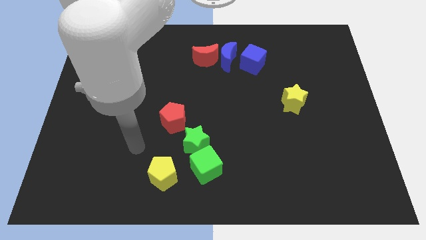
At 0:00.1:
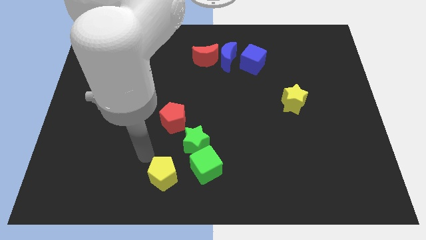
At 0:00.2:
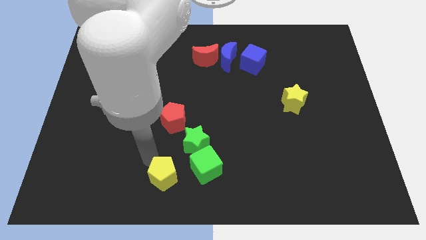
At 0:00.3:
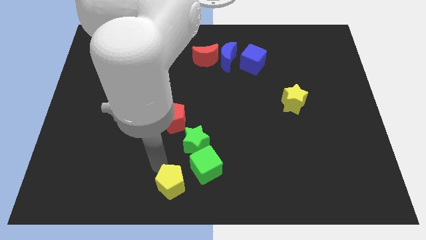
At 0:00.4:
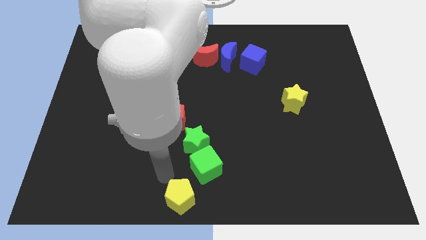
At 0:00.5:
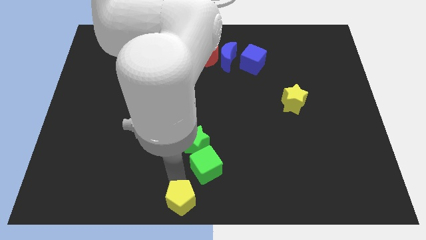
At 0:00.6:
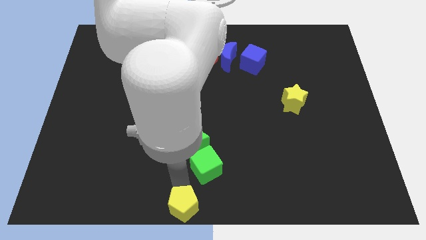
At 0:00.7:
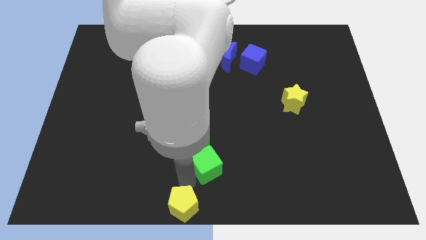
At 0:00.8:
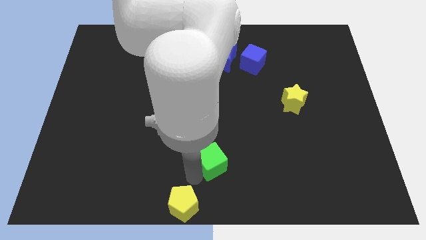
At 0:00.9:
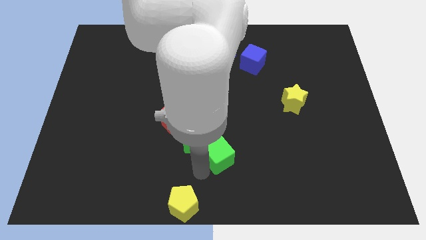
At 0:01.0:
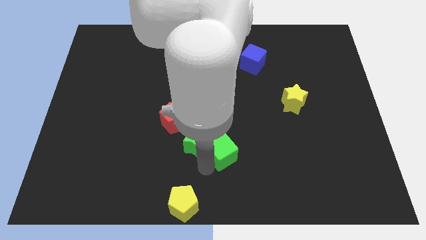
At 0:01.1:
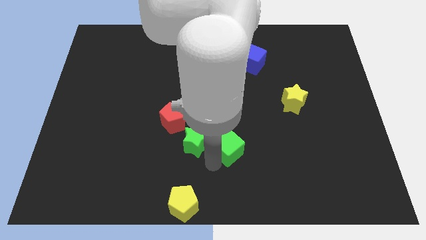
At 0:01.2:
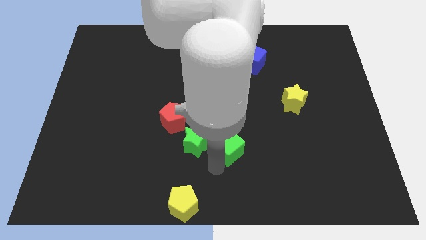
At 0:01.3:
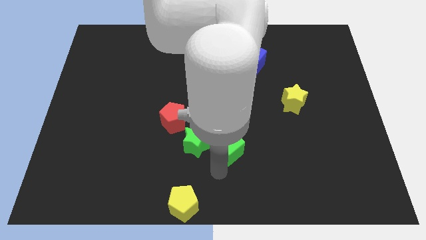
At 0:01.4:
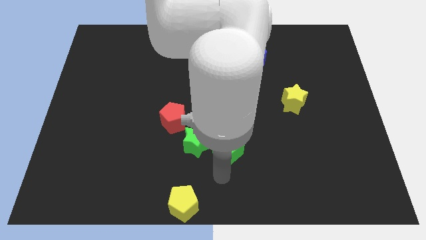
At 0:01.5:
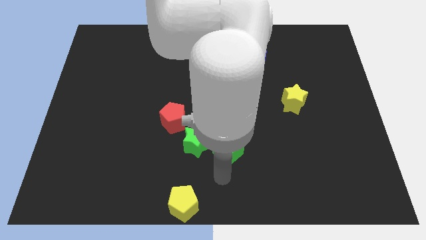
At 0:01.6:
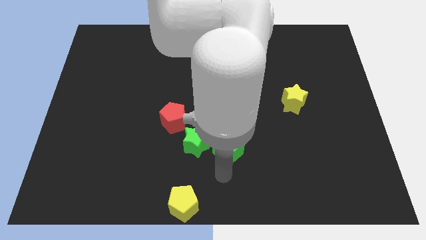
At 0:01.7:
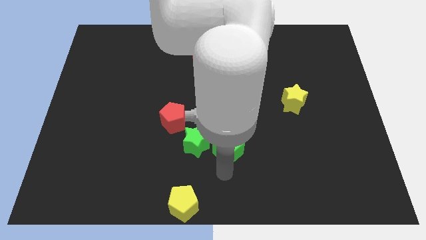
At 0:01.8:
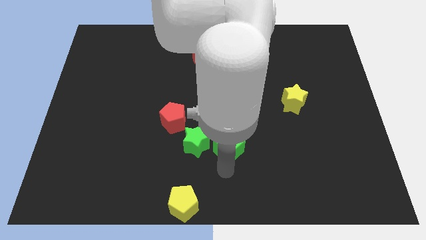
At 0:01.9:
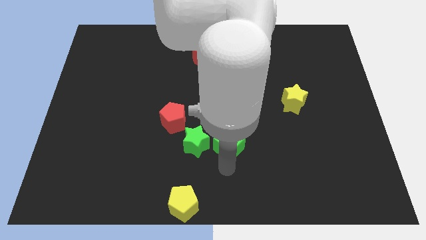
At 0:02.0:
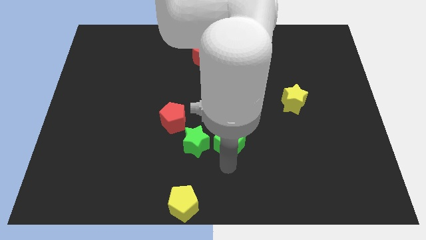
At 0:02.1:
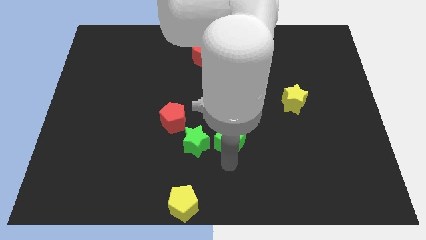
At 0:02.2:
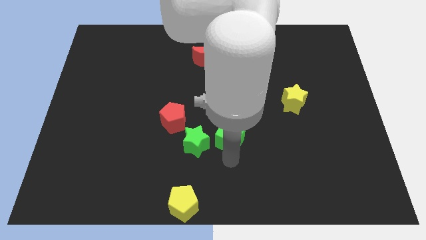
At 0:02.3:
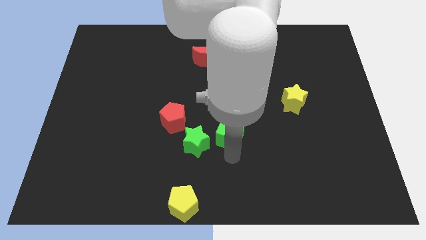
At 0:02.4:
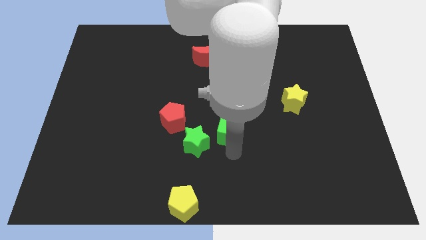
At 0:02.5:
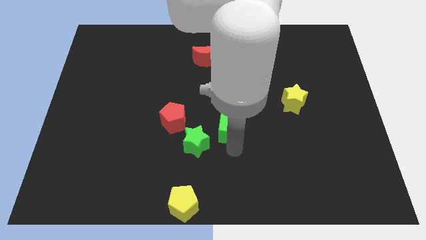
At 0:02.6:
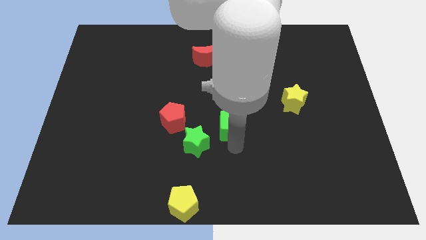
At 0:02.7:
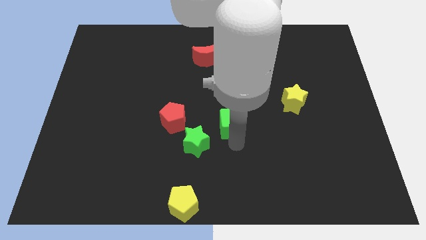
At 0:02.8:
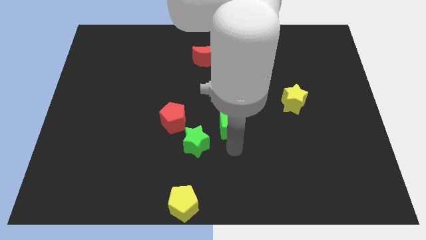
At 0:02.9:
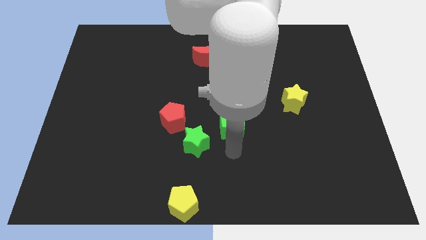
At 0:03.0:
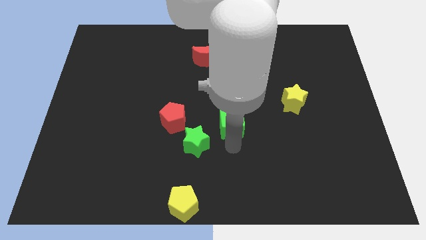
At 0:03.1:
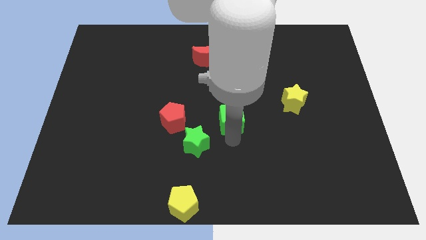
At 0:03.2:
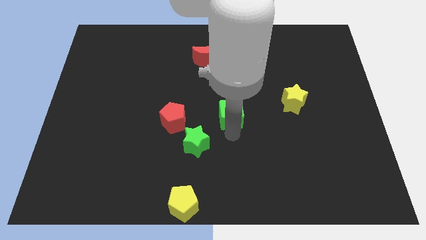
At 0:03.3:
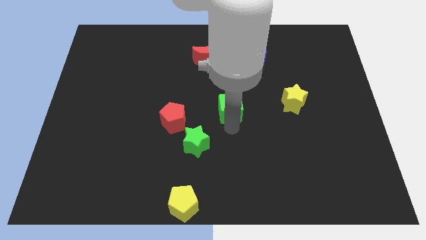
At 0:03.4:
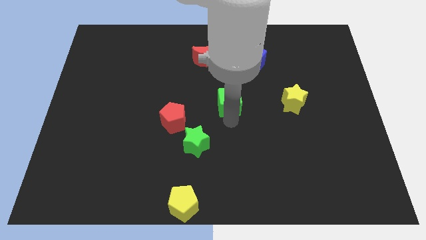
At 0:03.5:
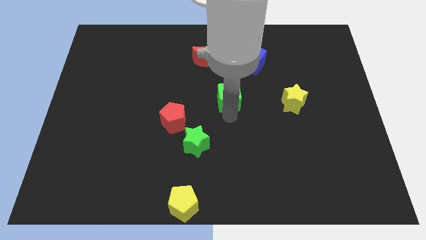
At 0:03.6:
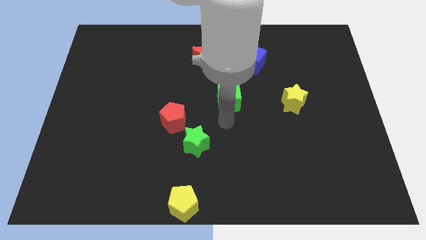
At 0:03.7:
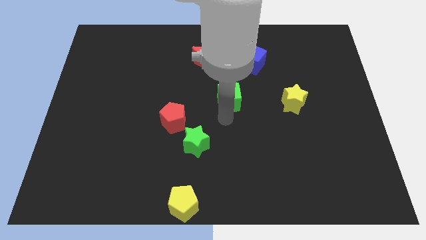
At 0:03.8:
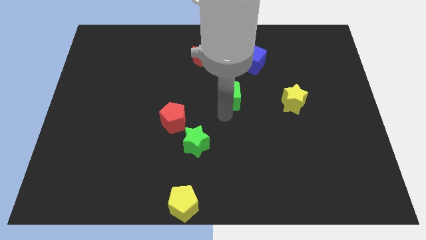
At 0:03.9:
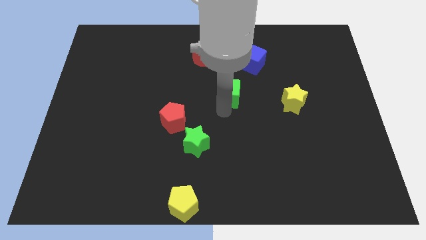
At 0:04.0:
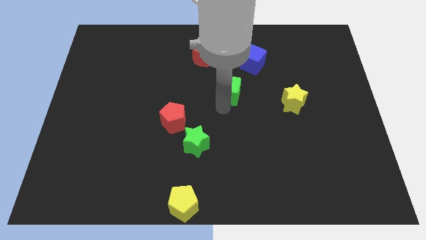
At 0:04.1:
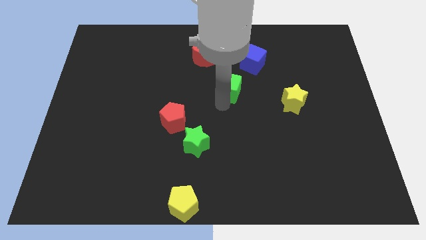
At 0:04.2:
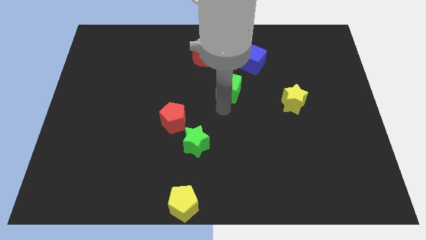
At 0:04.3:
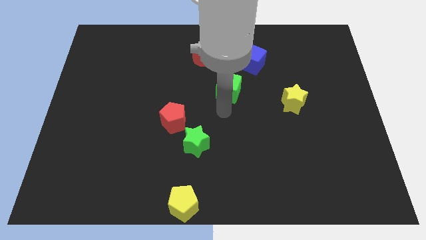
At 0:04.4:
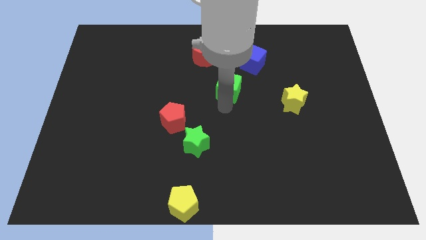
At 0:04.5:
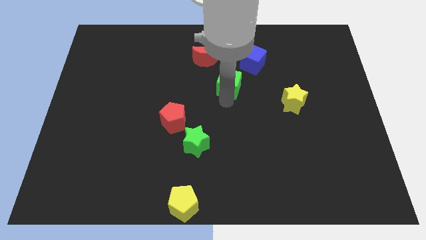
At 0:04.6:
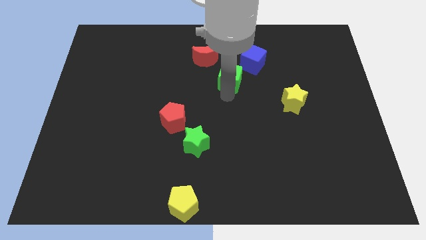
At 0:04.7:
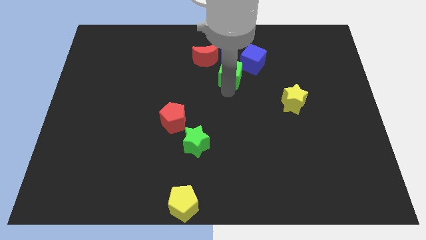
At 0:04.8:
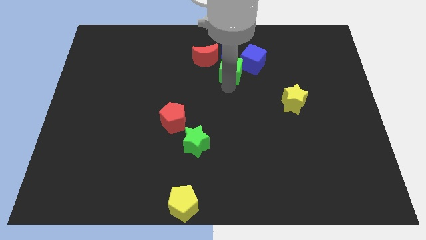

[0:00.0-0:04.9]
put the green cube to the blue moon

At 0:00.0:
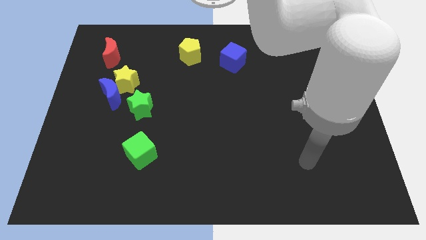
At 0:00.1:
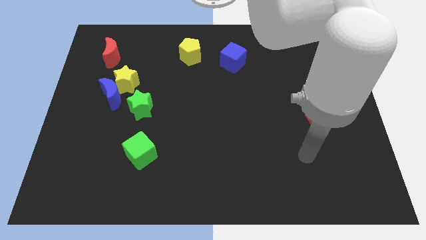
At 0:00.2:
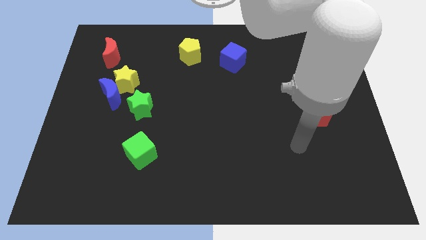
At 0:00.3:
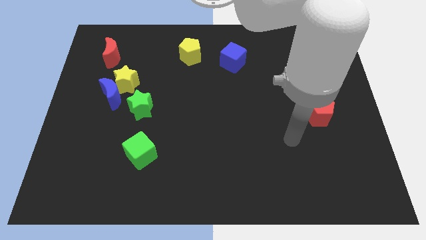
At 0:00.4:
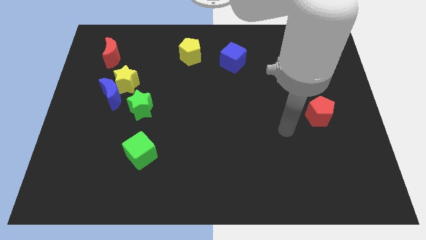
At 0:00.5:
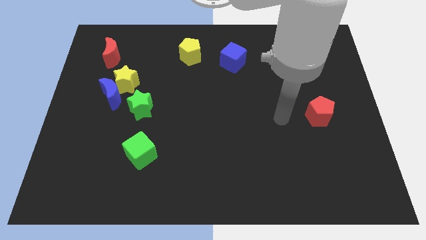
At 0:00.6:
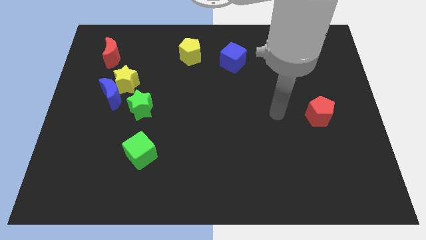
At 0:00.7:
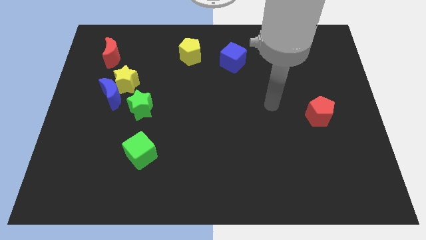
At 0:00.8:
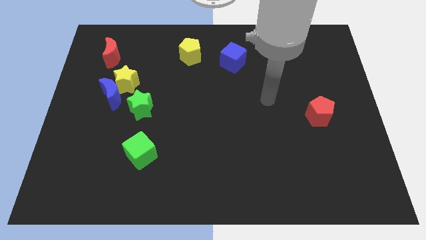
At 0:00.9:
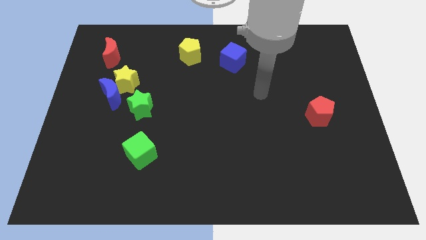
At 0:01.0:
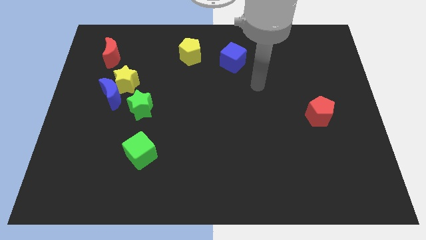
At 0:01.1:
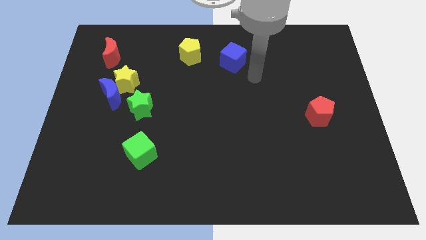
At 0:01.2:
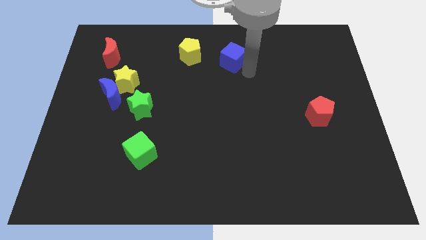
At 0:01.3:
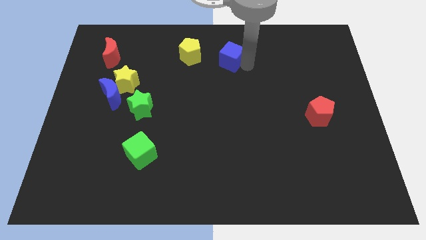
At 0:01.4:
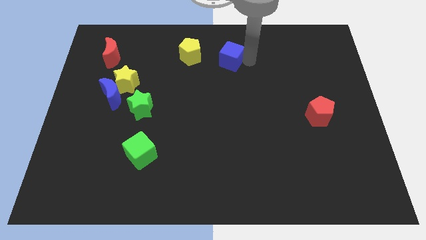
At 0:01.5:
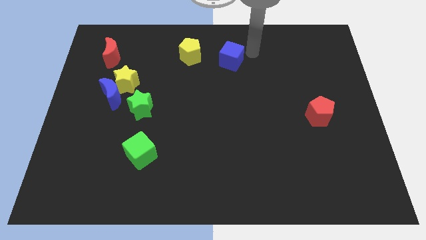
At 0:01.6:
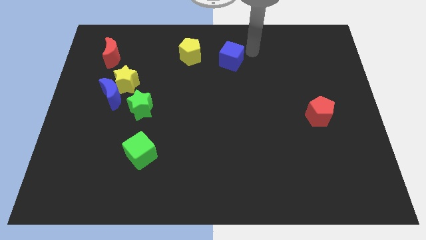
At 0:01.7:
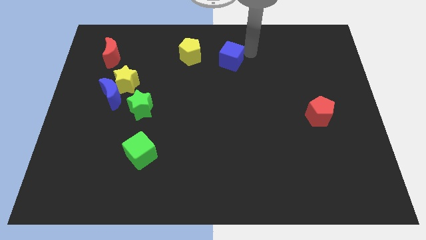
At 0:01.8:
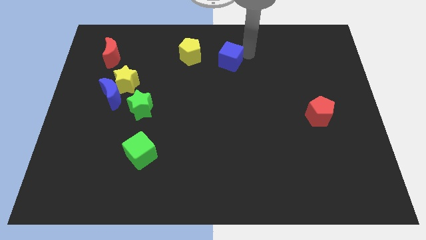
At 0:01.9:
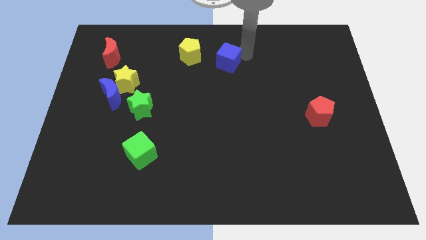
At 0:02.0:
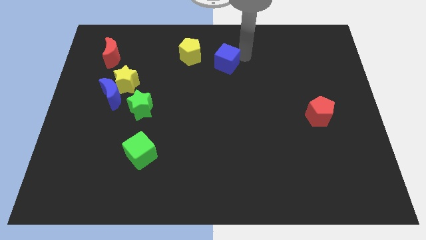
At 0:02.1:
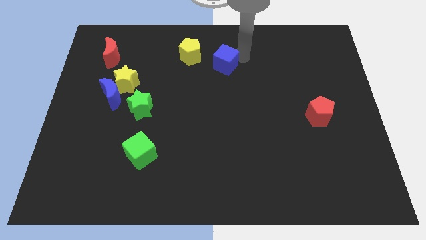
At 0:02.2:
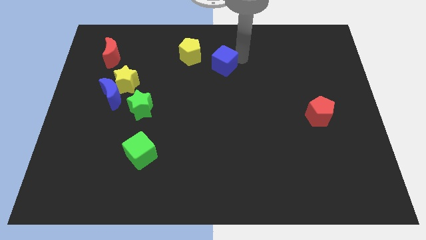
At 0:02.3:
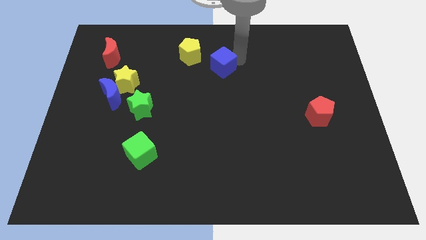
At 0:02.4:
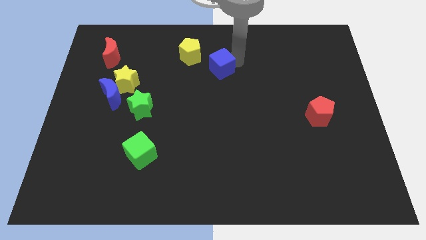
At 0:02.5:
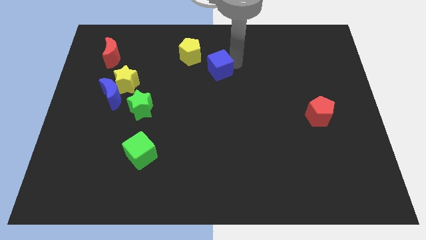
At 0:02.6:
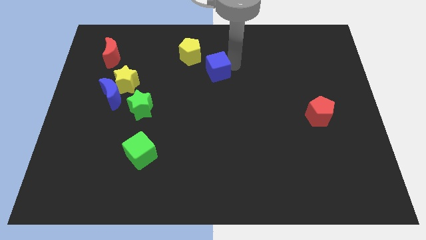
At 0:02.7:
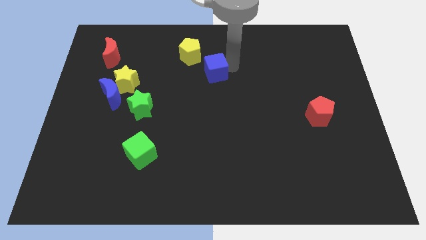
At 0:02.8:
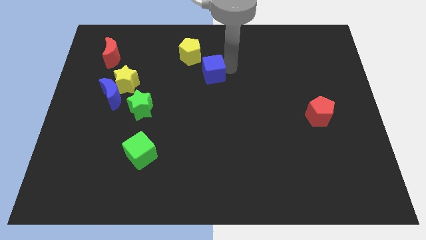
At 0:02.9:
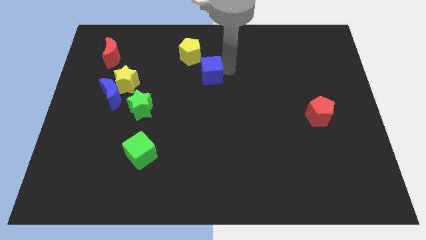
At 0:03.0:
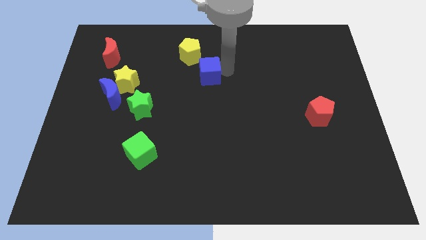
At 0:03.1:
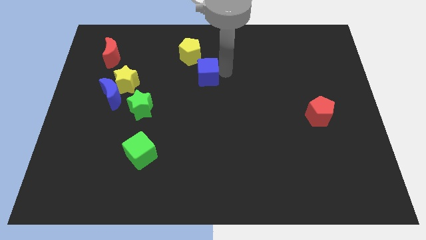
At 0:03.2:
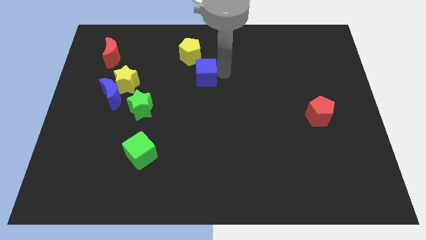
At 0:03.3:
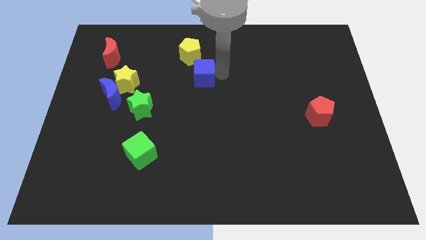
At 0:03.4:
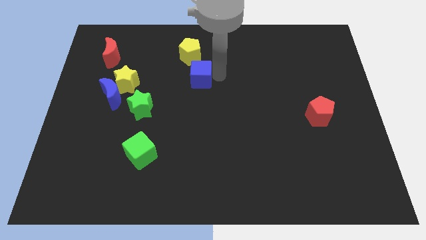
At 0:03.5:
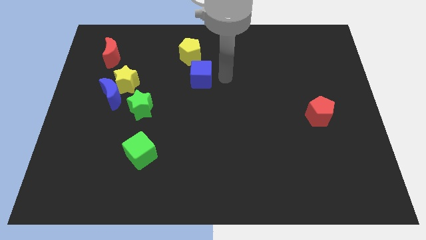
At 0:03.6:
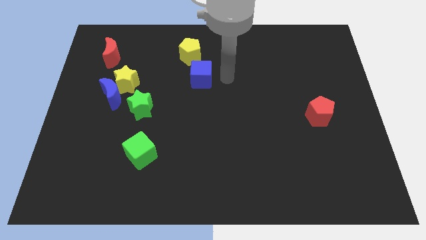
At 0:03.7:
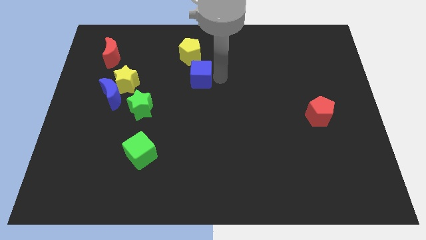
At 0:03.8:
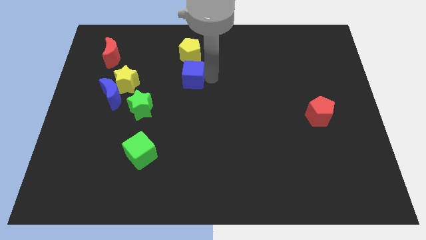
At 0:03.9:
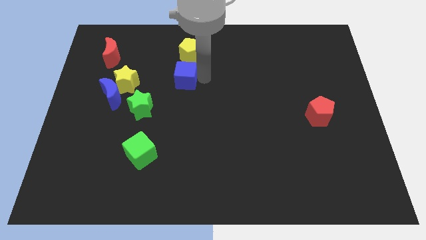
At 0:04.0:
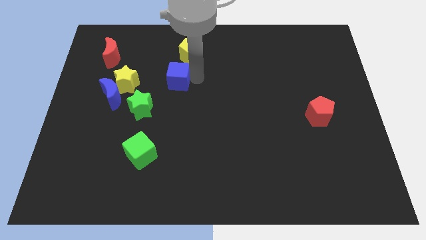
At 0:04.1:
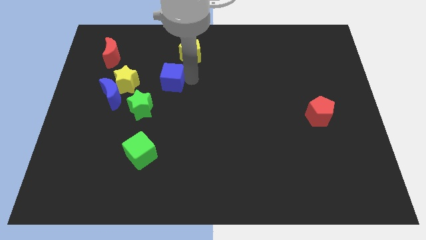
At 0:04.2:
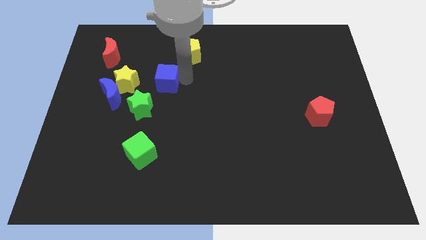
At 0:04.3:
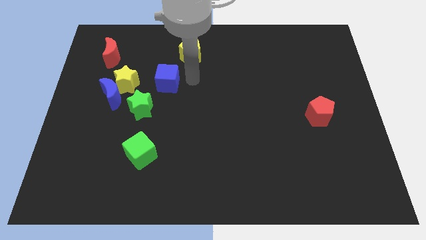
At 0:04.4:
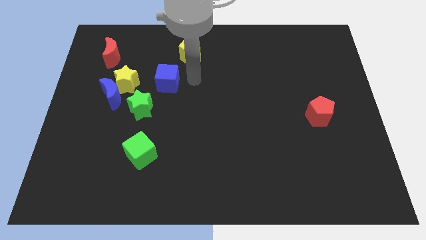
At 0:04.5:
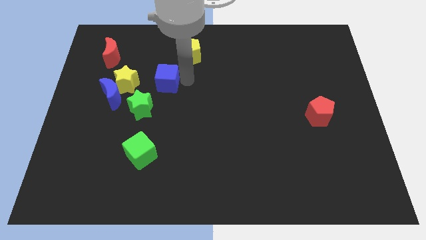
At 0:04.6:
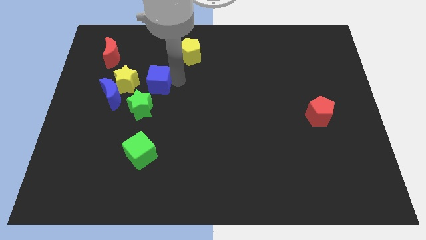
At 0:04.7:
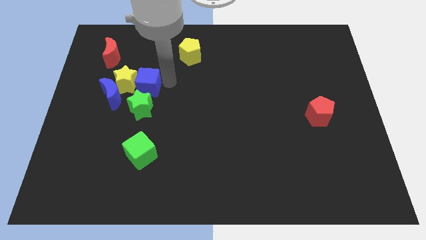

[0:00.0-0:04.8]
push the blue cube close to the yellow star
